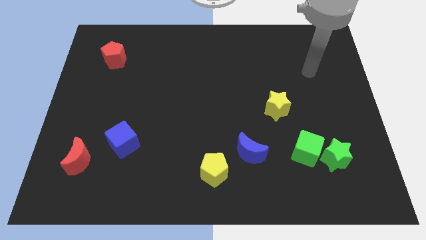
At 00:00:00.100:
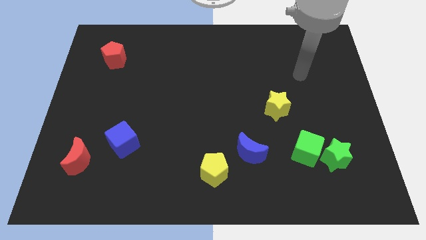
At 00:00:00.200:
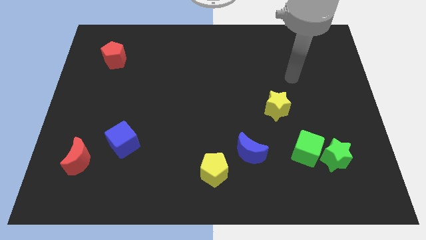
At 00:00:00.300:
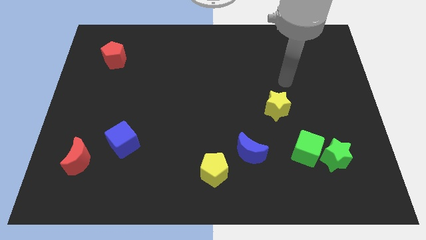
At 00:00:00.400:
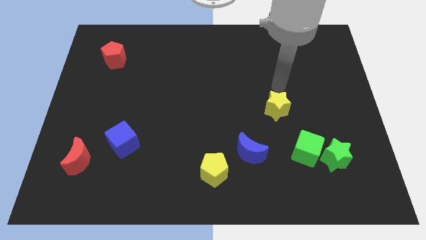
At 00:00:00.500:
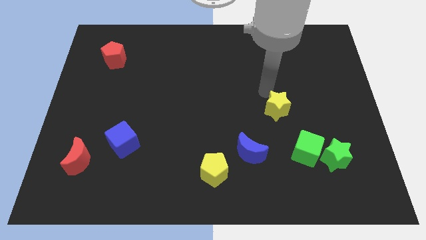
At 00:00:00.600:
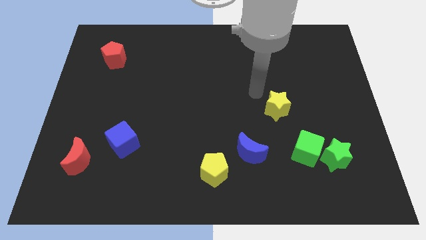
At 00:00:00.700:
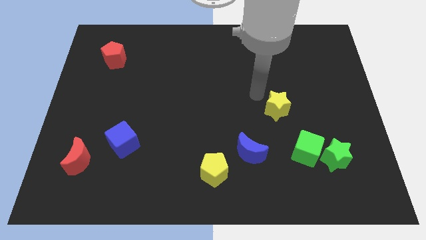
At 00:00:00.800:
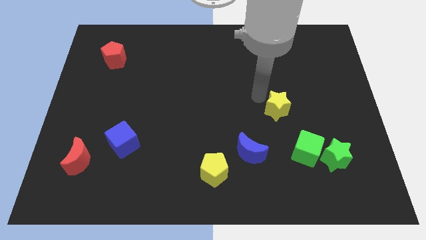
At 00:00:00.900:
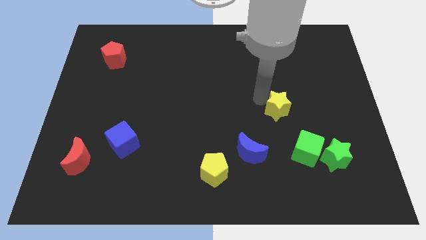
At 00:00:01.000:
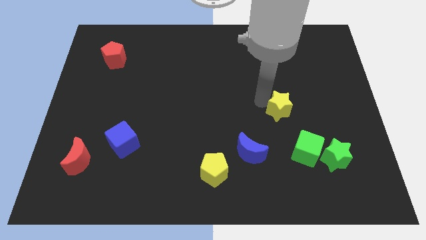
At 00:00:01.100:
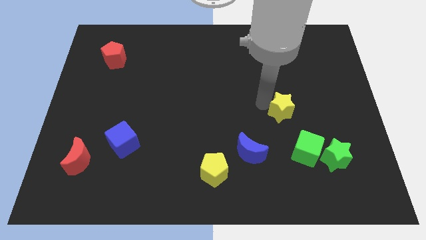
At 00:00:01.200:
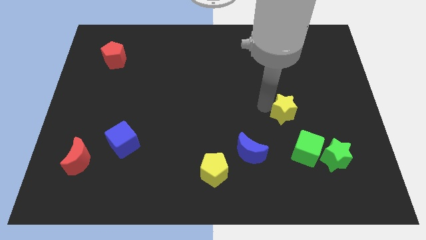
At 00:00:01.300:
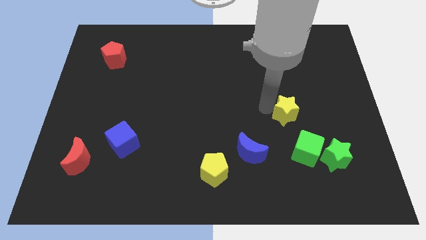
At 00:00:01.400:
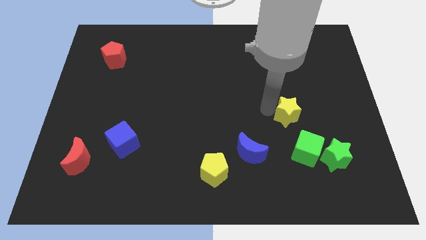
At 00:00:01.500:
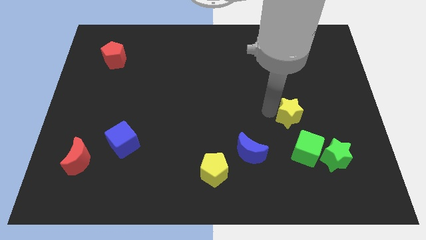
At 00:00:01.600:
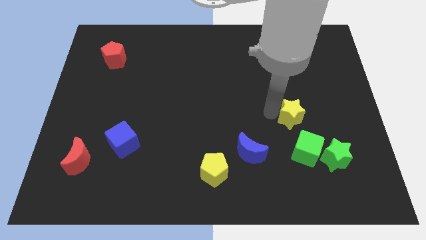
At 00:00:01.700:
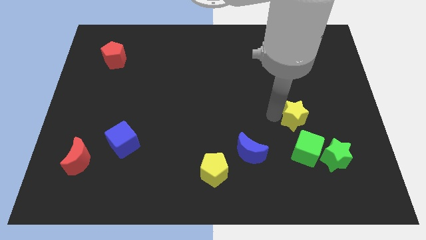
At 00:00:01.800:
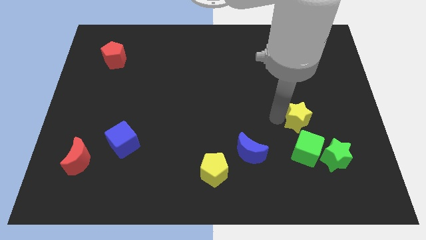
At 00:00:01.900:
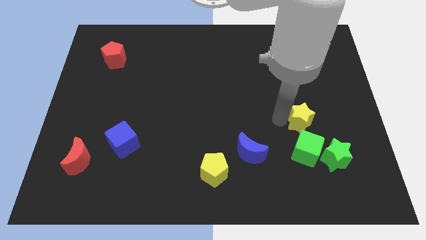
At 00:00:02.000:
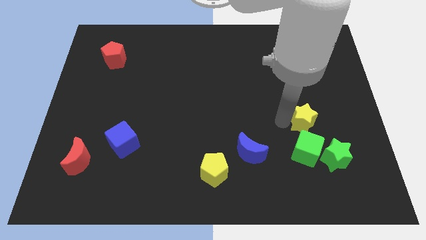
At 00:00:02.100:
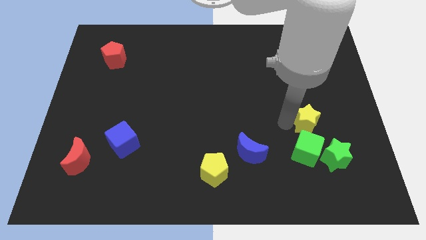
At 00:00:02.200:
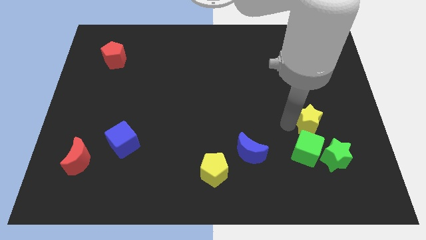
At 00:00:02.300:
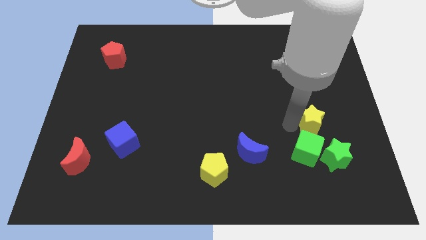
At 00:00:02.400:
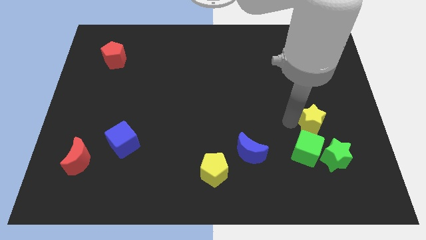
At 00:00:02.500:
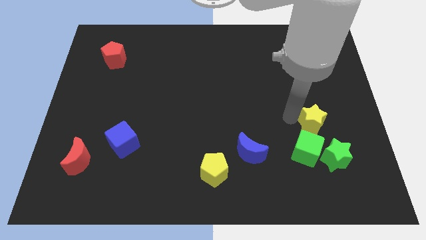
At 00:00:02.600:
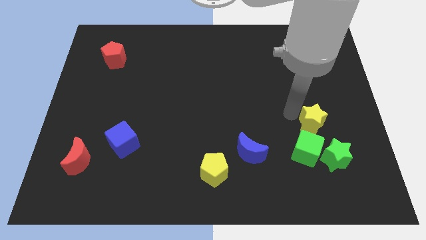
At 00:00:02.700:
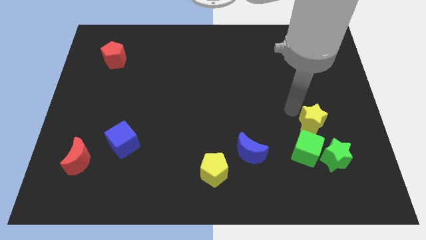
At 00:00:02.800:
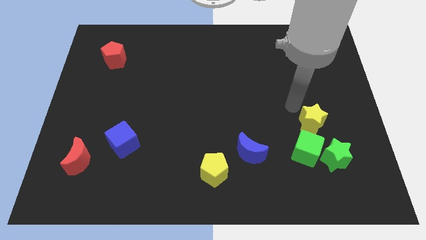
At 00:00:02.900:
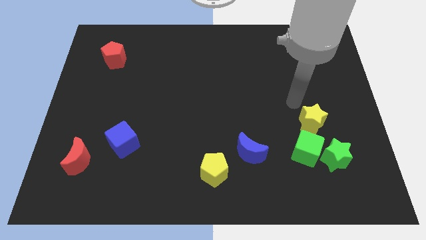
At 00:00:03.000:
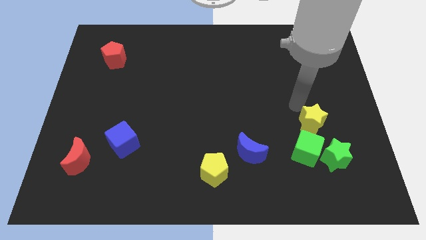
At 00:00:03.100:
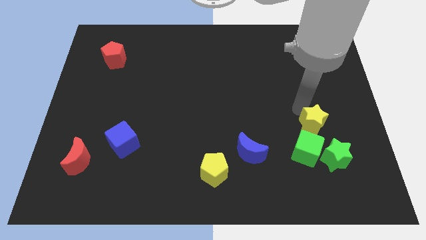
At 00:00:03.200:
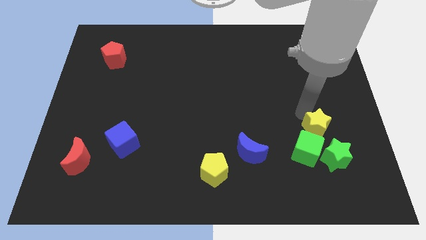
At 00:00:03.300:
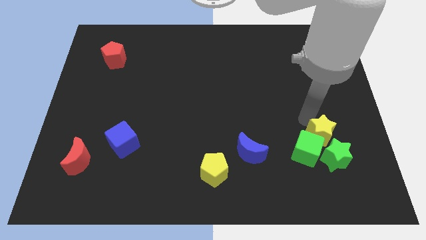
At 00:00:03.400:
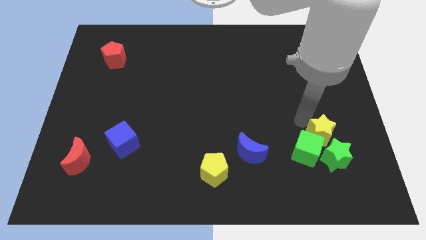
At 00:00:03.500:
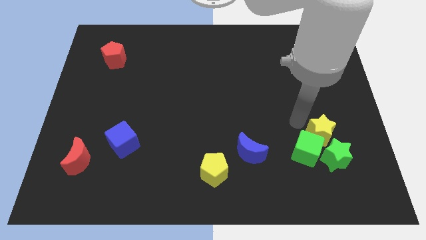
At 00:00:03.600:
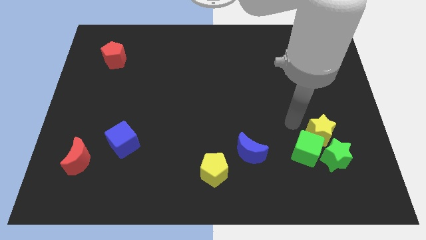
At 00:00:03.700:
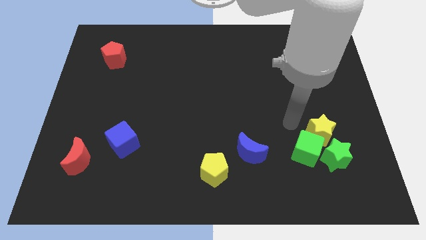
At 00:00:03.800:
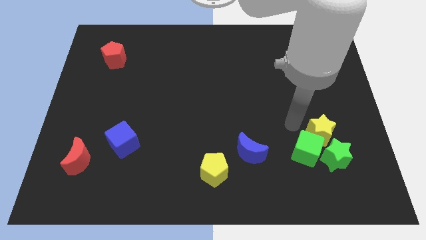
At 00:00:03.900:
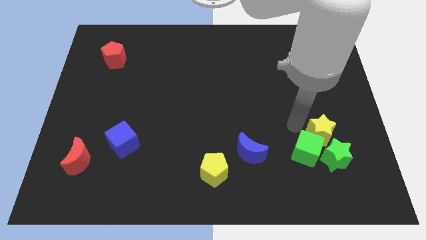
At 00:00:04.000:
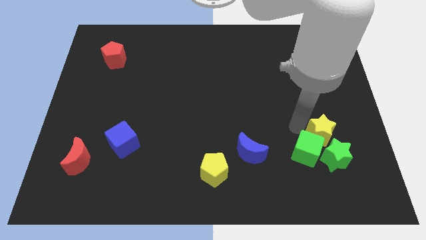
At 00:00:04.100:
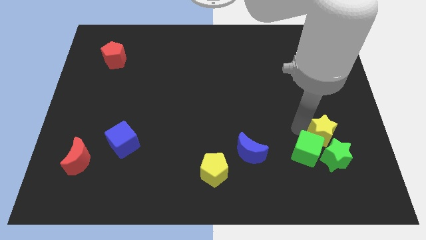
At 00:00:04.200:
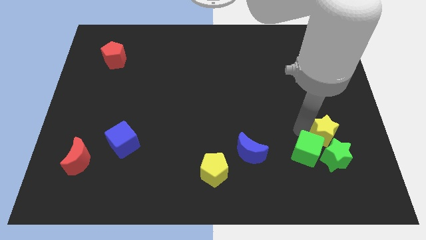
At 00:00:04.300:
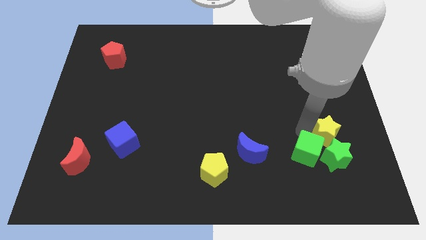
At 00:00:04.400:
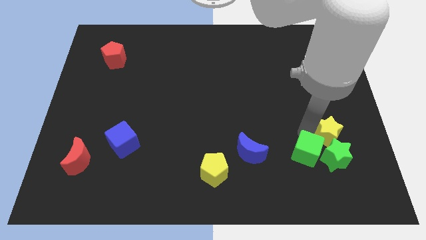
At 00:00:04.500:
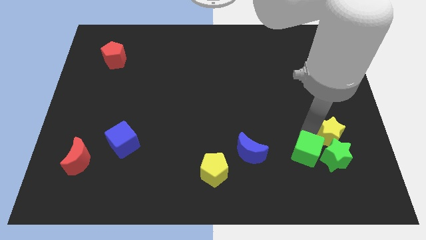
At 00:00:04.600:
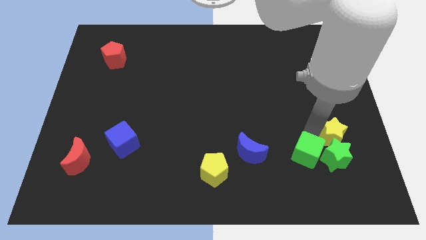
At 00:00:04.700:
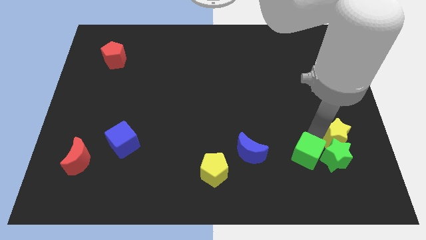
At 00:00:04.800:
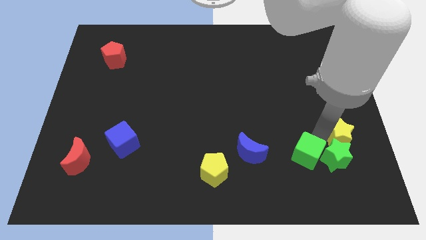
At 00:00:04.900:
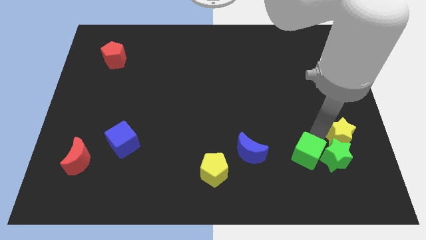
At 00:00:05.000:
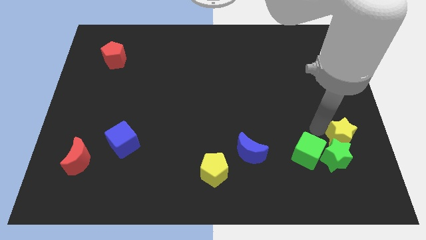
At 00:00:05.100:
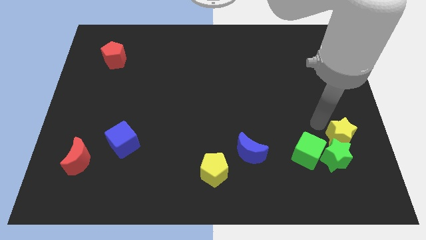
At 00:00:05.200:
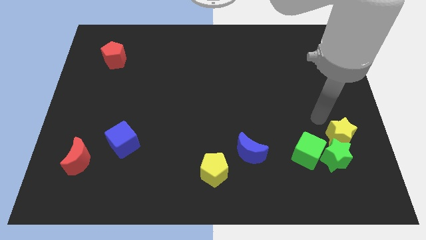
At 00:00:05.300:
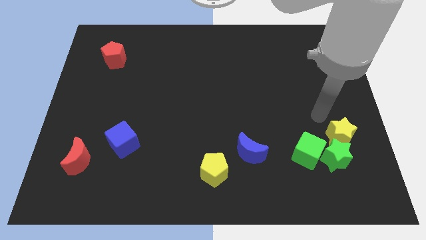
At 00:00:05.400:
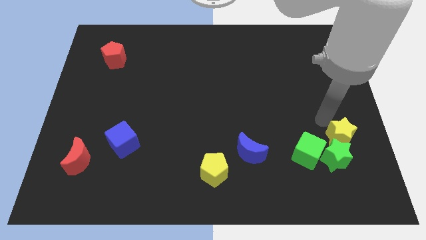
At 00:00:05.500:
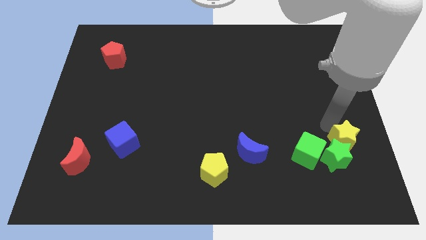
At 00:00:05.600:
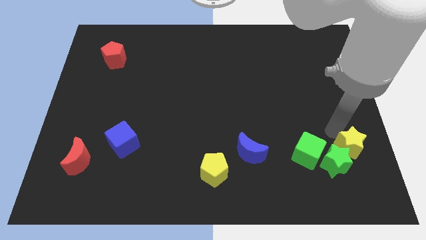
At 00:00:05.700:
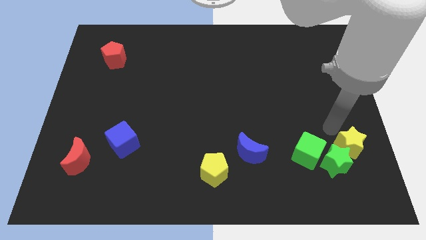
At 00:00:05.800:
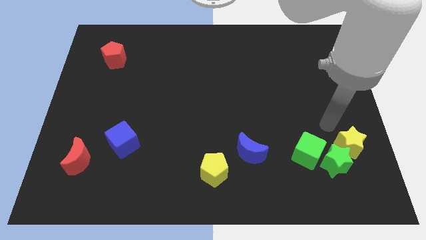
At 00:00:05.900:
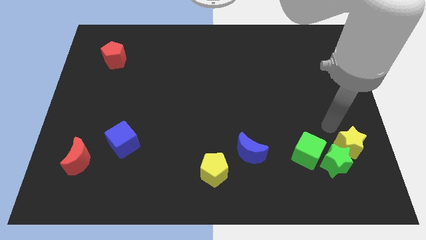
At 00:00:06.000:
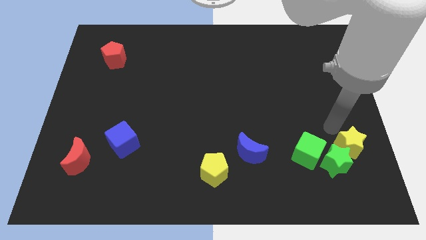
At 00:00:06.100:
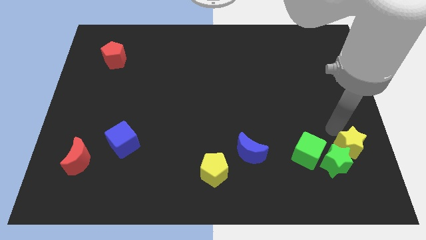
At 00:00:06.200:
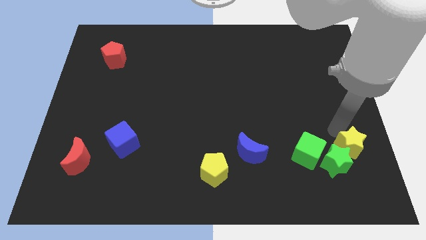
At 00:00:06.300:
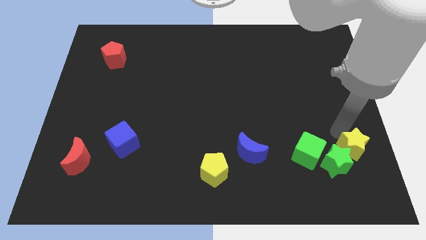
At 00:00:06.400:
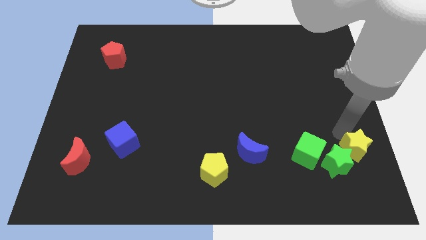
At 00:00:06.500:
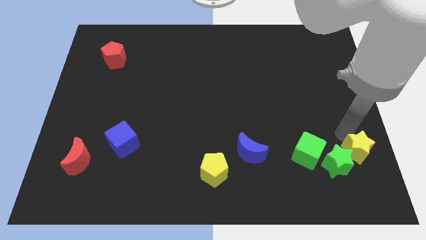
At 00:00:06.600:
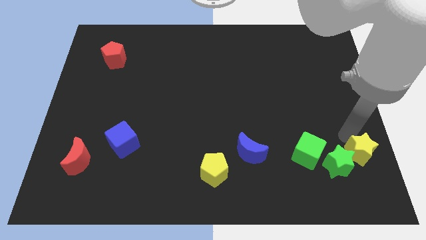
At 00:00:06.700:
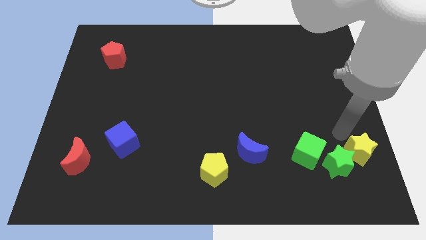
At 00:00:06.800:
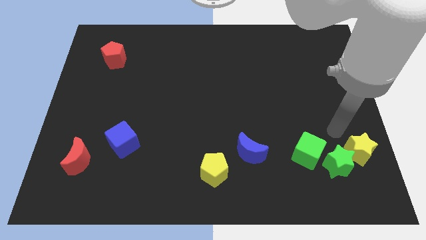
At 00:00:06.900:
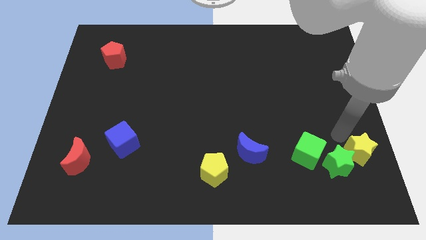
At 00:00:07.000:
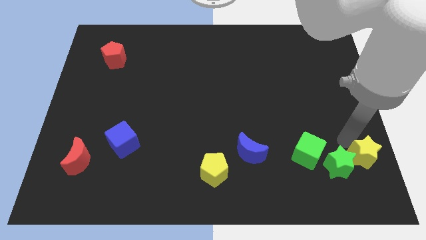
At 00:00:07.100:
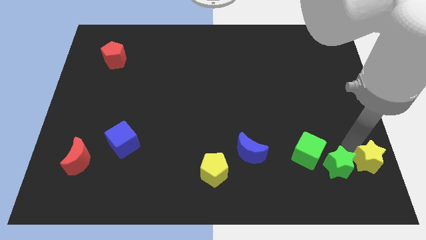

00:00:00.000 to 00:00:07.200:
put the yellow star to the bottom right
